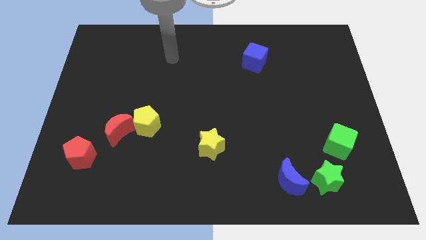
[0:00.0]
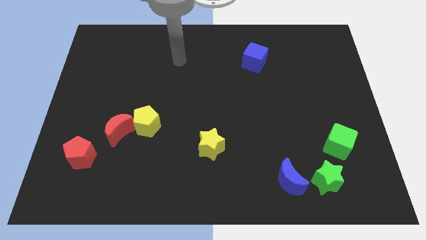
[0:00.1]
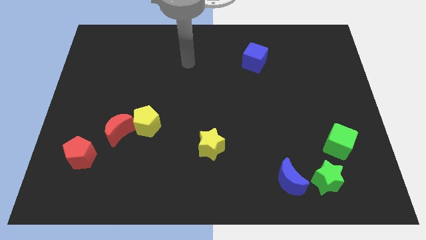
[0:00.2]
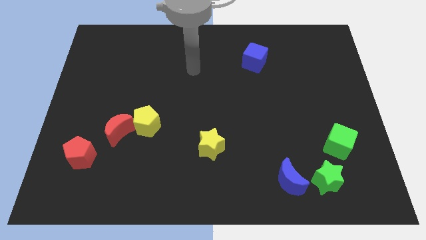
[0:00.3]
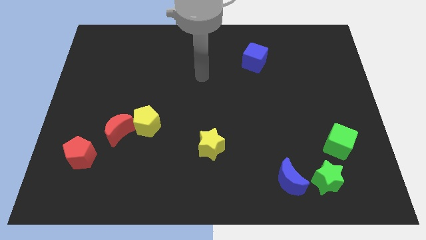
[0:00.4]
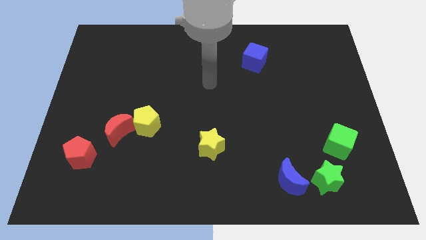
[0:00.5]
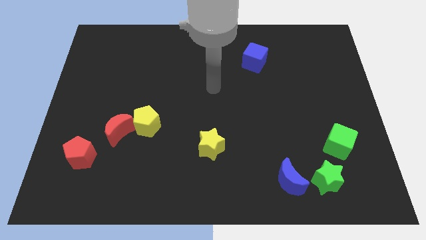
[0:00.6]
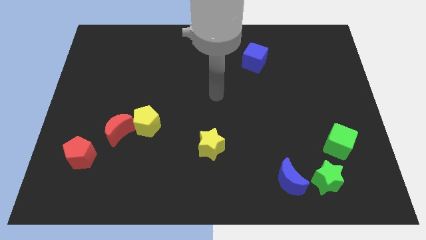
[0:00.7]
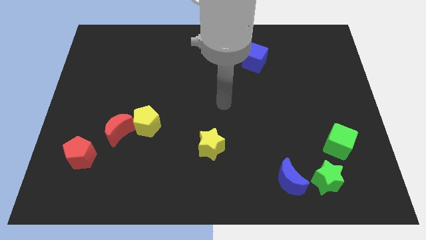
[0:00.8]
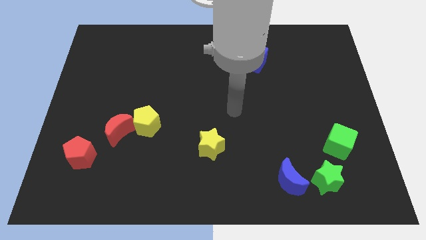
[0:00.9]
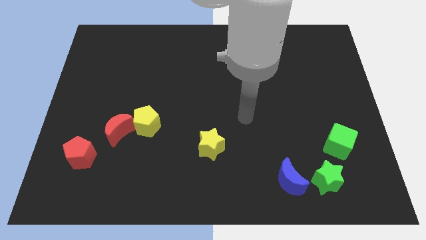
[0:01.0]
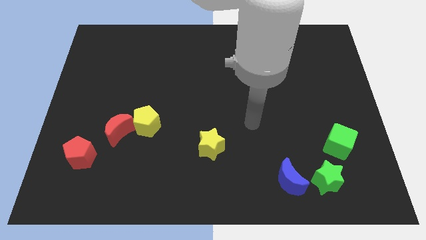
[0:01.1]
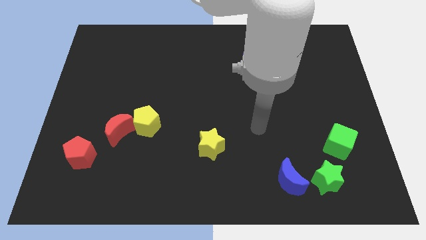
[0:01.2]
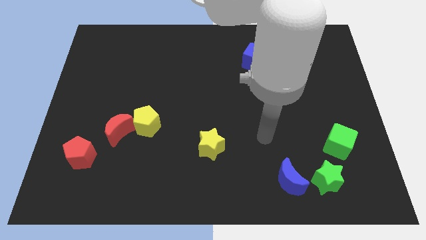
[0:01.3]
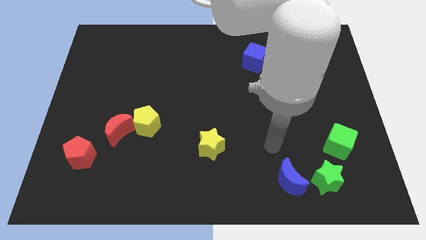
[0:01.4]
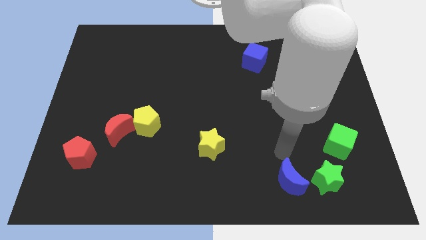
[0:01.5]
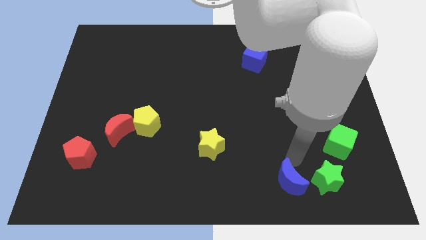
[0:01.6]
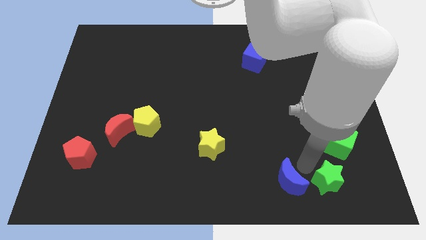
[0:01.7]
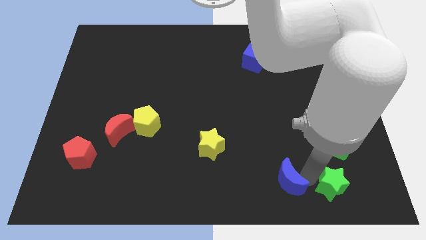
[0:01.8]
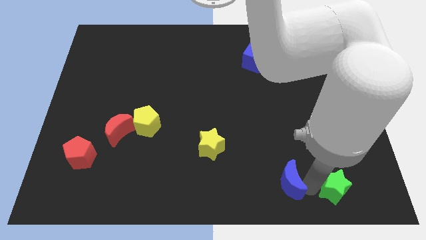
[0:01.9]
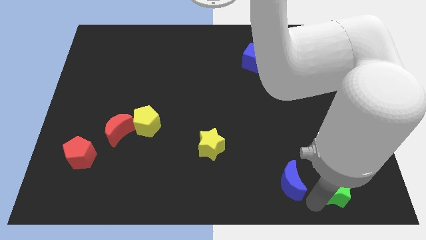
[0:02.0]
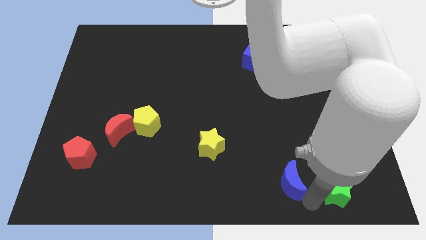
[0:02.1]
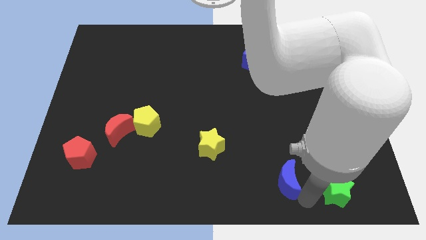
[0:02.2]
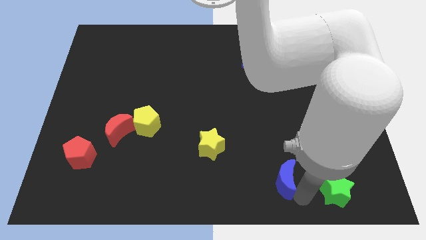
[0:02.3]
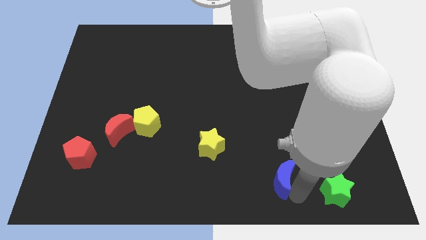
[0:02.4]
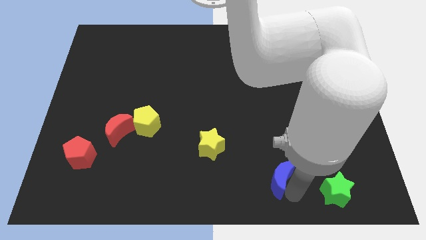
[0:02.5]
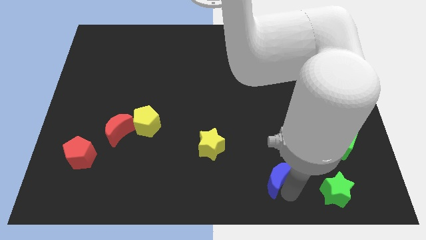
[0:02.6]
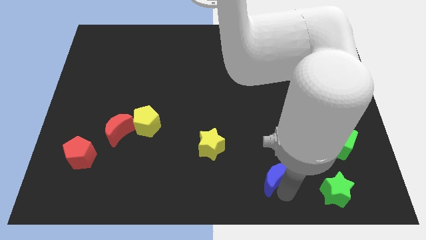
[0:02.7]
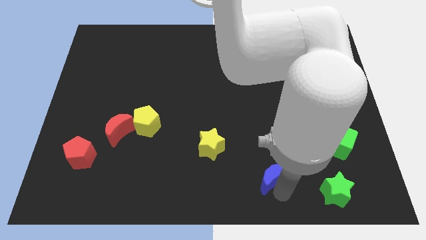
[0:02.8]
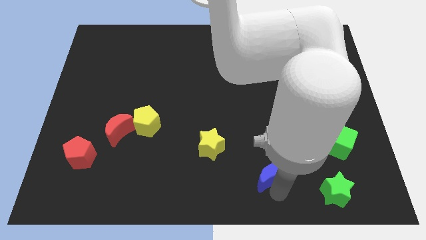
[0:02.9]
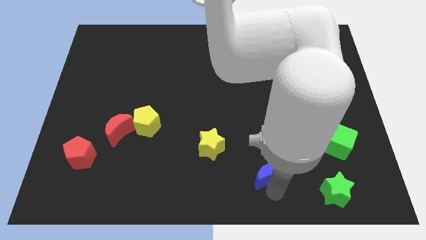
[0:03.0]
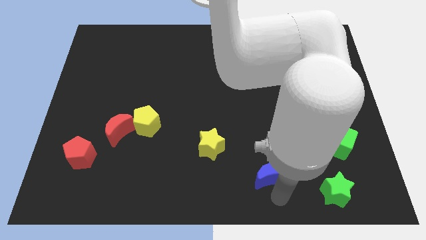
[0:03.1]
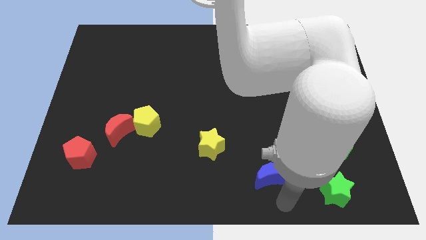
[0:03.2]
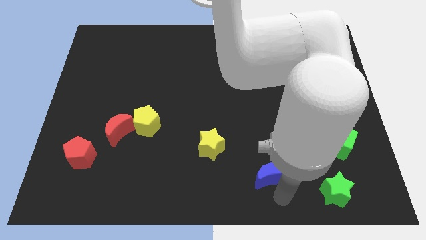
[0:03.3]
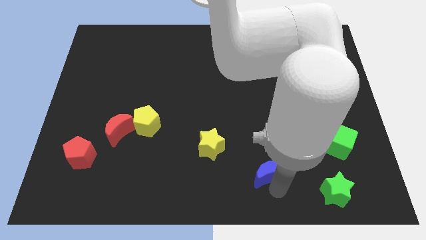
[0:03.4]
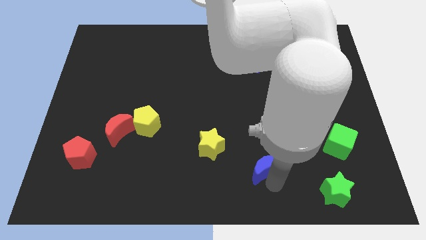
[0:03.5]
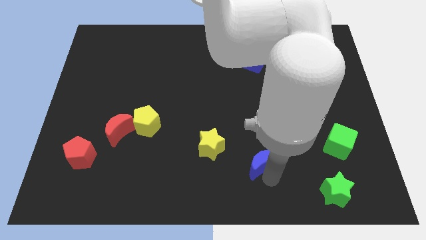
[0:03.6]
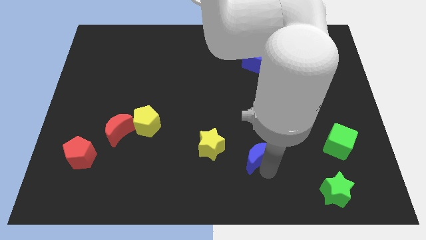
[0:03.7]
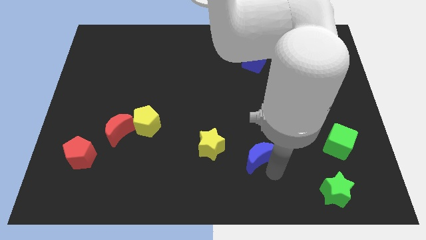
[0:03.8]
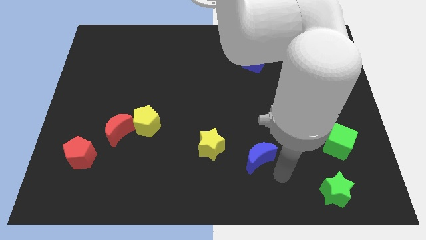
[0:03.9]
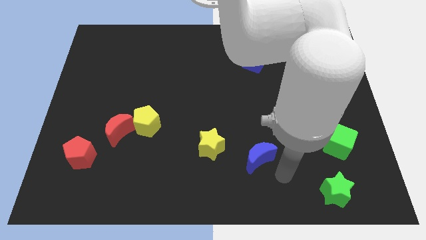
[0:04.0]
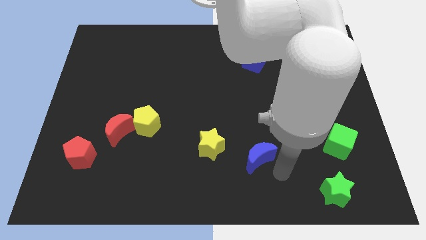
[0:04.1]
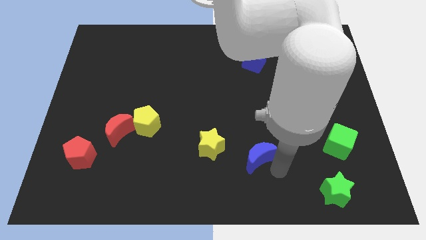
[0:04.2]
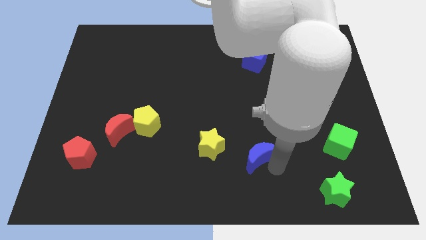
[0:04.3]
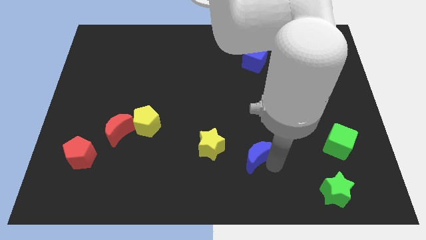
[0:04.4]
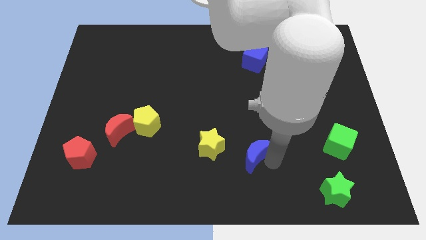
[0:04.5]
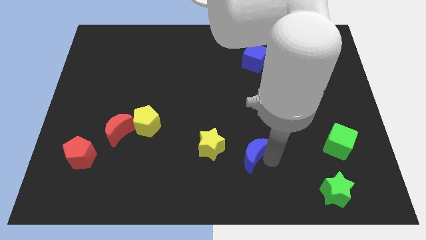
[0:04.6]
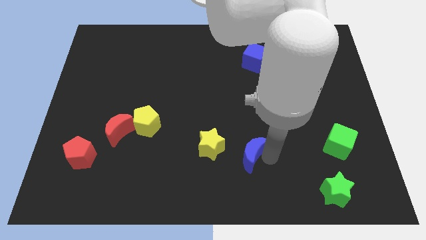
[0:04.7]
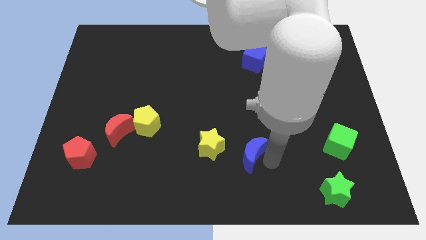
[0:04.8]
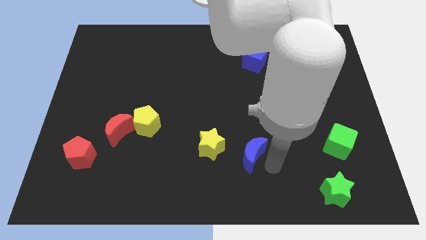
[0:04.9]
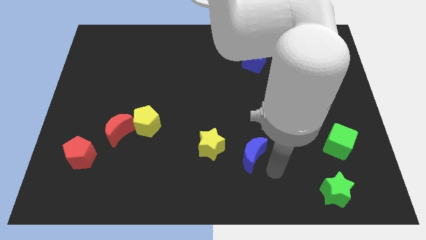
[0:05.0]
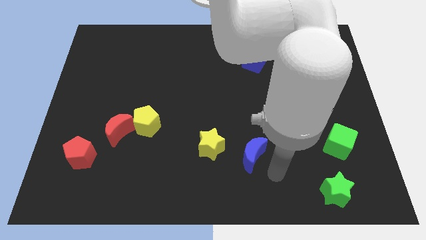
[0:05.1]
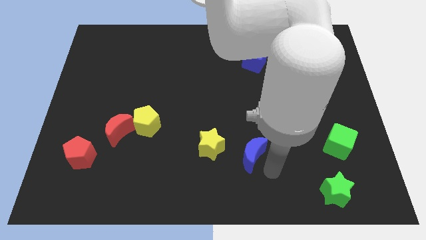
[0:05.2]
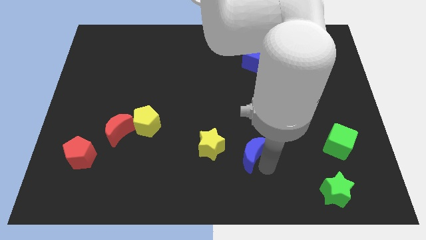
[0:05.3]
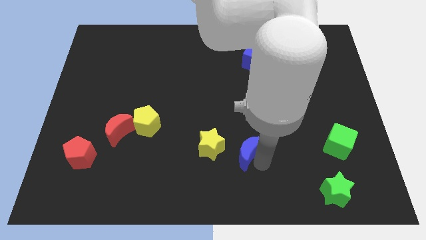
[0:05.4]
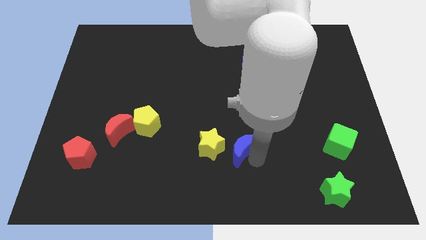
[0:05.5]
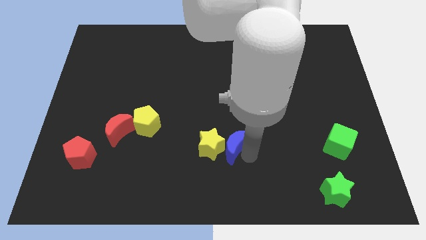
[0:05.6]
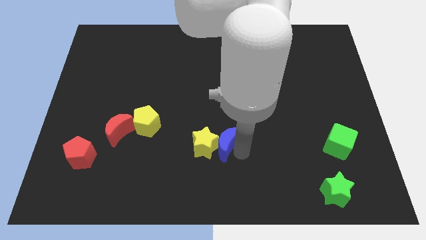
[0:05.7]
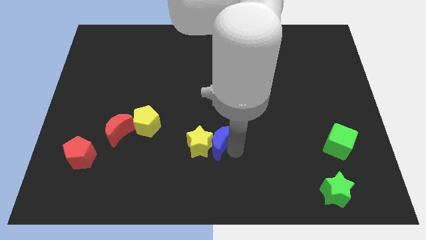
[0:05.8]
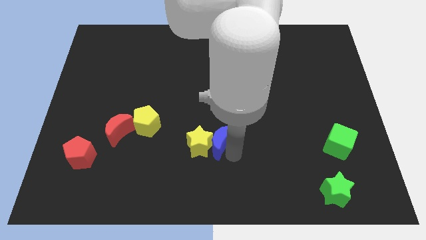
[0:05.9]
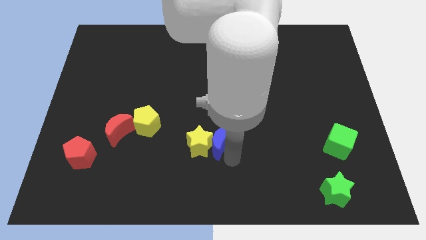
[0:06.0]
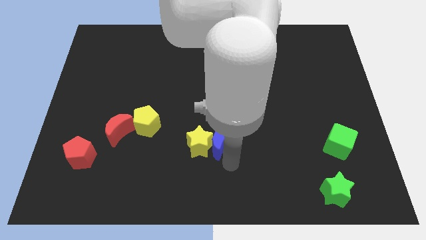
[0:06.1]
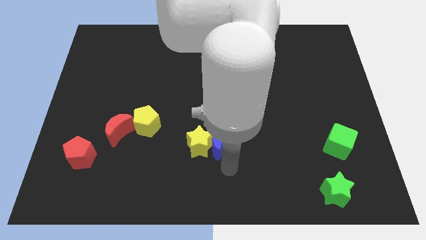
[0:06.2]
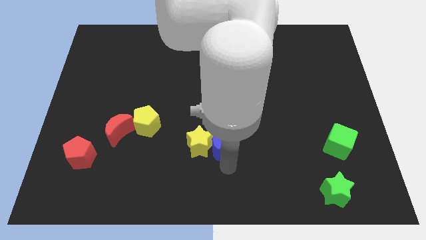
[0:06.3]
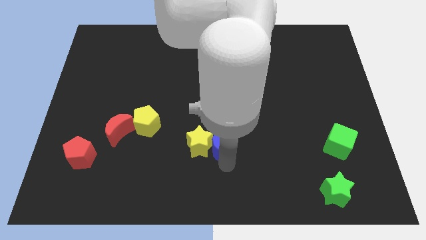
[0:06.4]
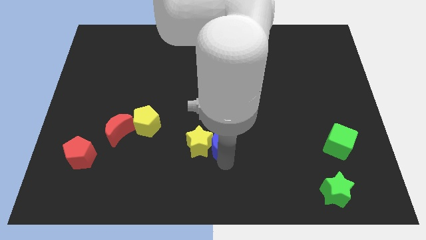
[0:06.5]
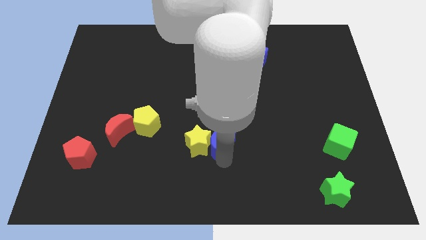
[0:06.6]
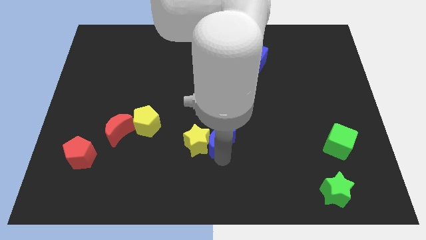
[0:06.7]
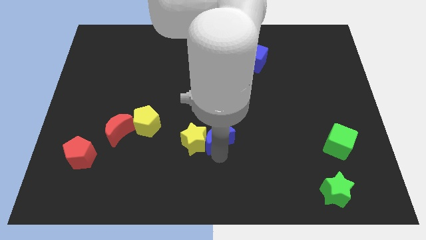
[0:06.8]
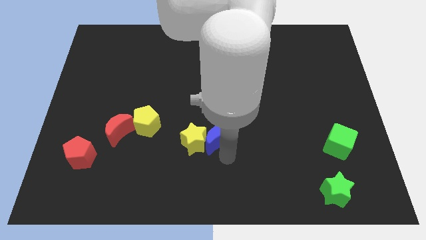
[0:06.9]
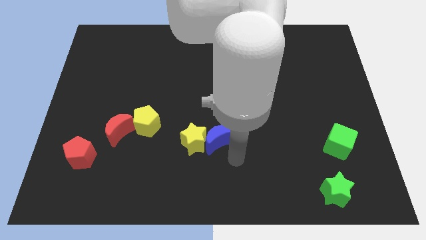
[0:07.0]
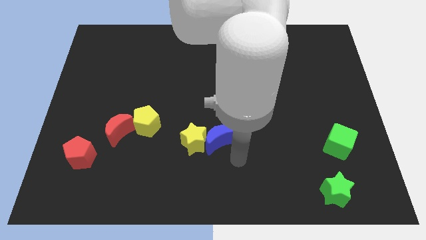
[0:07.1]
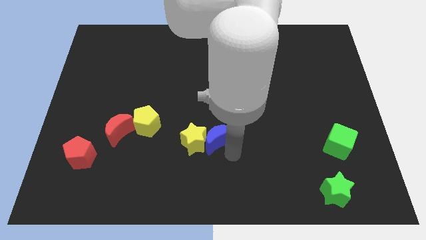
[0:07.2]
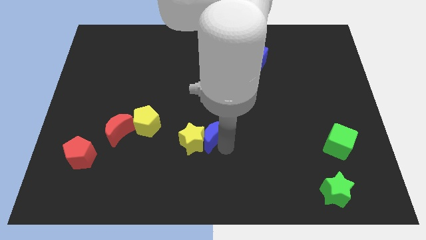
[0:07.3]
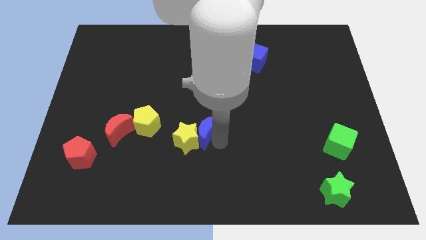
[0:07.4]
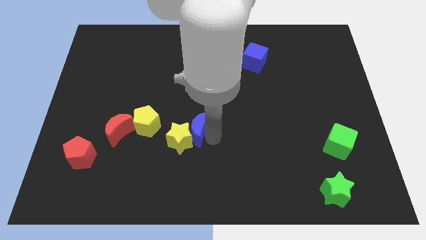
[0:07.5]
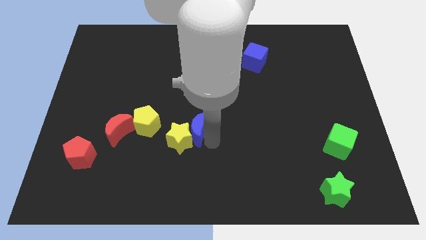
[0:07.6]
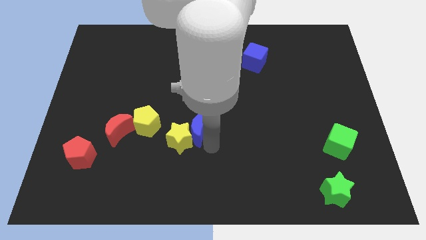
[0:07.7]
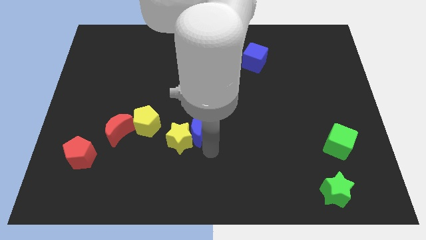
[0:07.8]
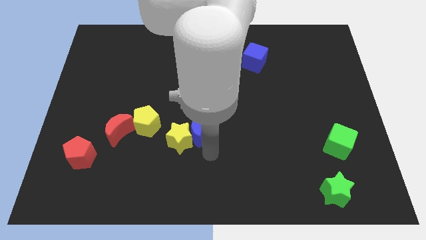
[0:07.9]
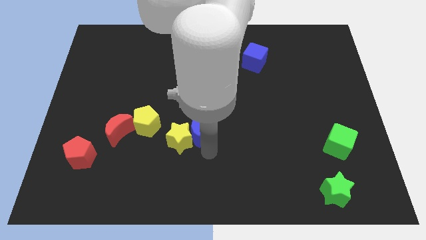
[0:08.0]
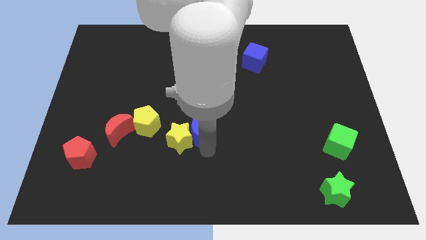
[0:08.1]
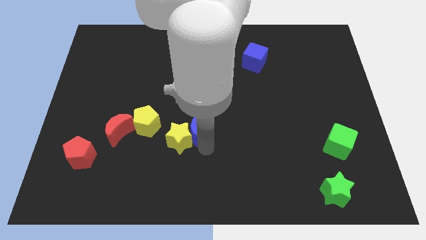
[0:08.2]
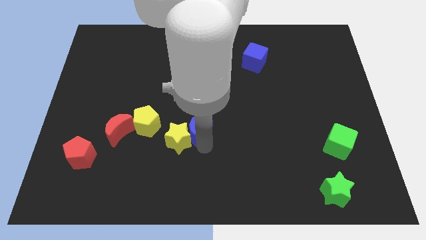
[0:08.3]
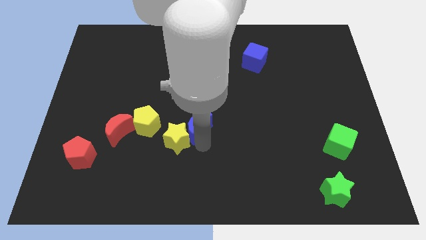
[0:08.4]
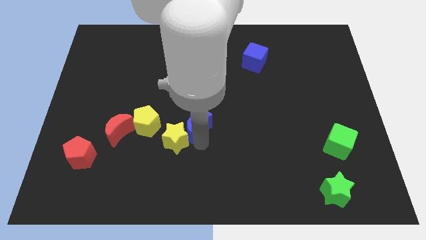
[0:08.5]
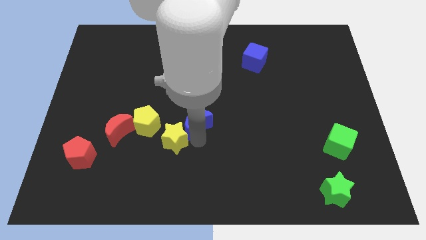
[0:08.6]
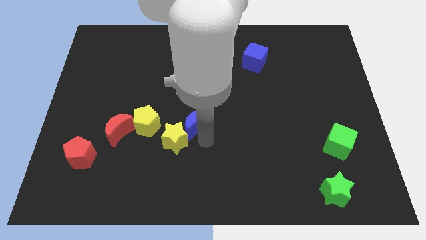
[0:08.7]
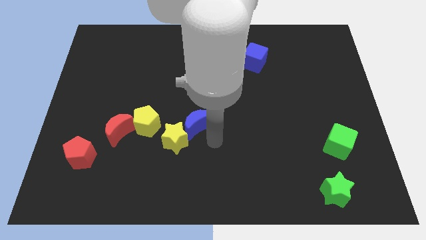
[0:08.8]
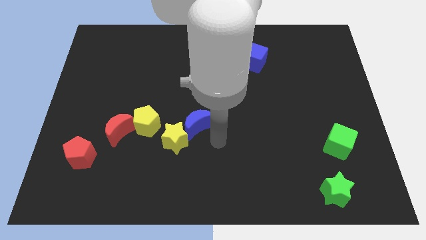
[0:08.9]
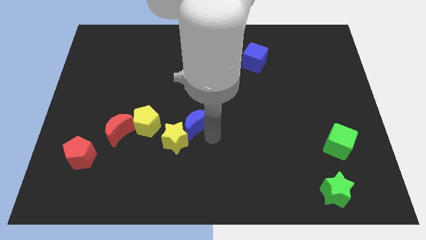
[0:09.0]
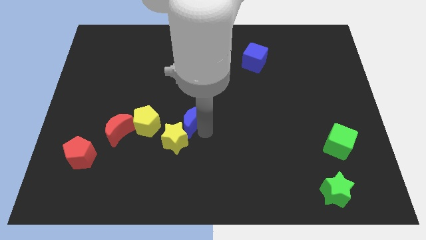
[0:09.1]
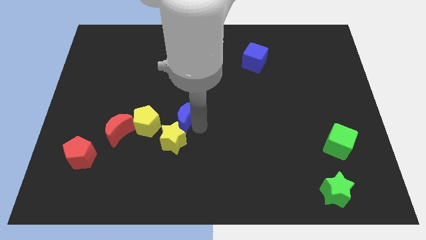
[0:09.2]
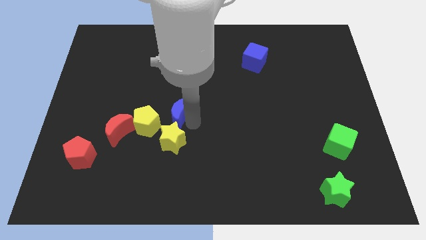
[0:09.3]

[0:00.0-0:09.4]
push the blue moon diagonally up and to the right of the yellow pentagon
